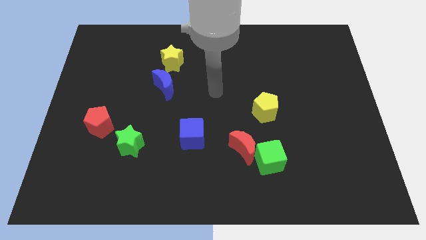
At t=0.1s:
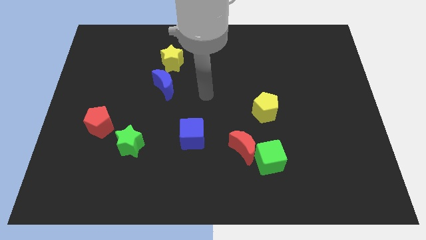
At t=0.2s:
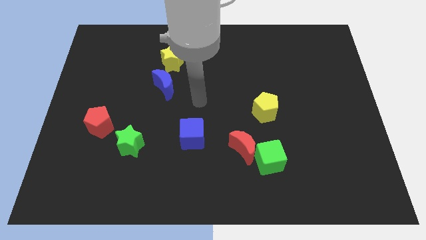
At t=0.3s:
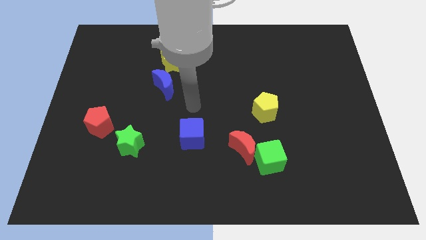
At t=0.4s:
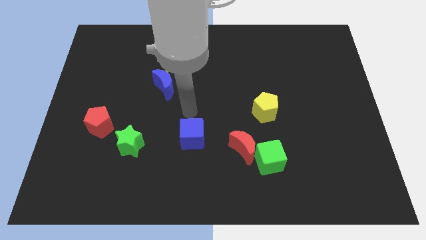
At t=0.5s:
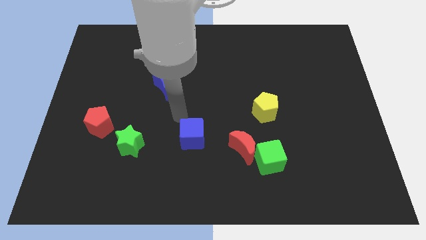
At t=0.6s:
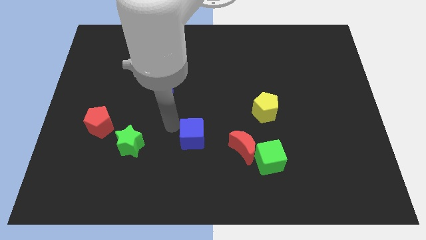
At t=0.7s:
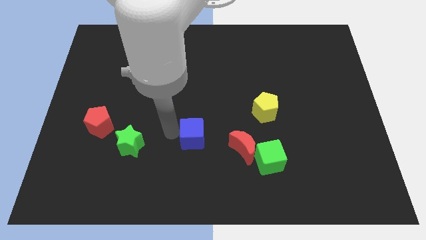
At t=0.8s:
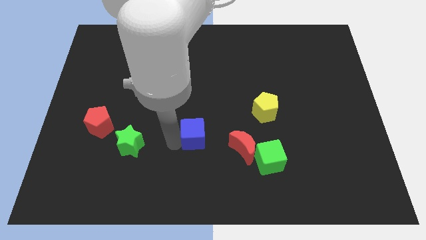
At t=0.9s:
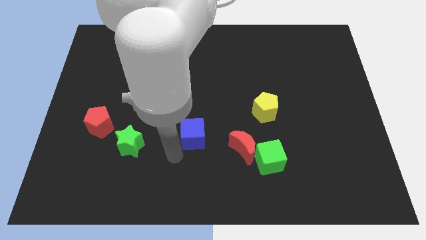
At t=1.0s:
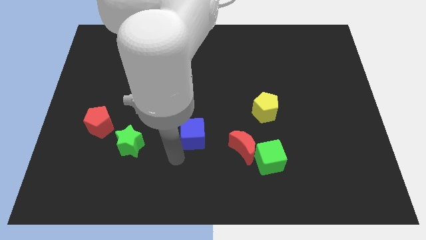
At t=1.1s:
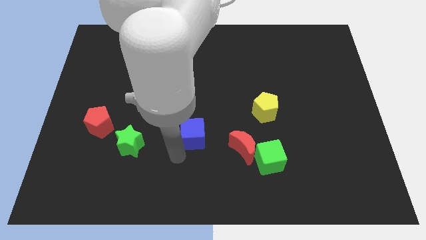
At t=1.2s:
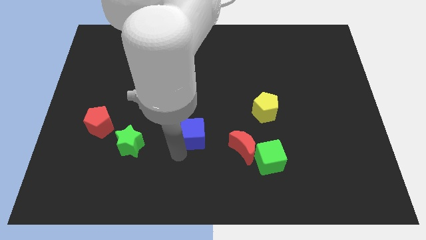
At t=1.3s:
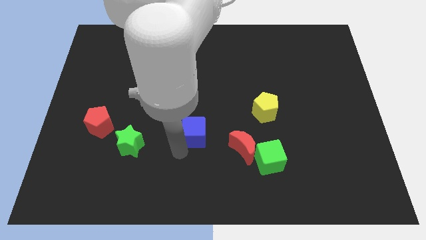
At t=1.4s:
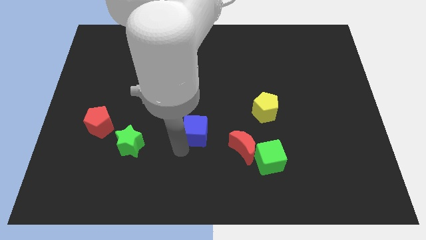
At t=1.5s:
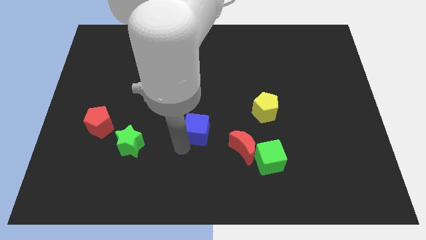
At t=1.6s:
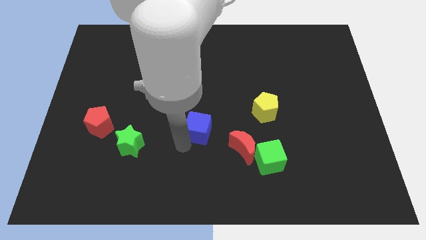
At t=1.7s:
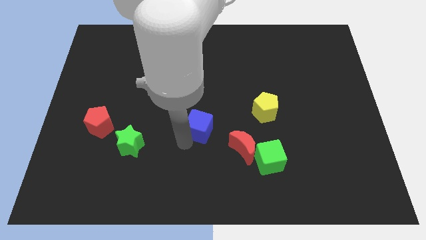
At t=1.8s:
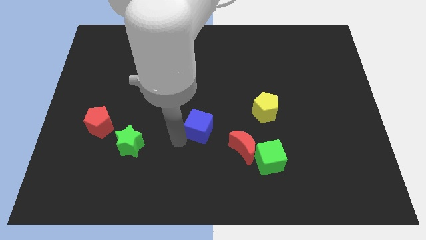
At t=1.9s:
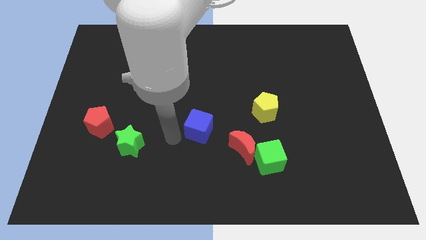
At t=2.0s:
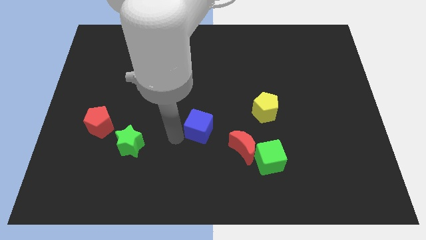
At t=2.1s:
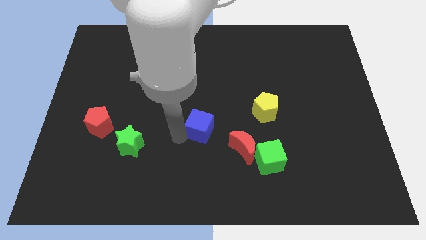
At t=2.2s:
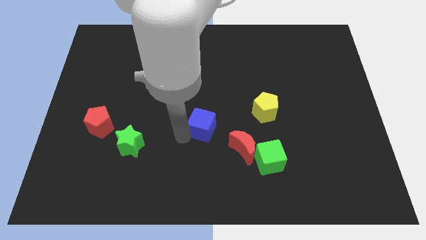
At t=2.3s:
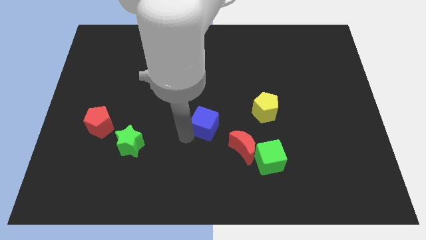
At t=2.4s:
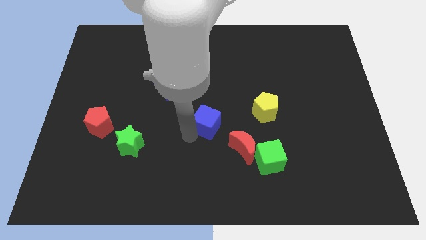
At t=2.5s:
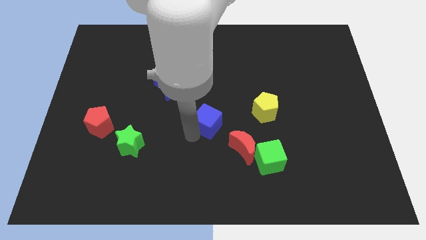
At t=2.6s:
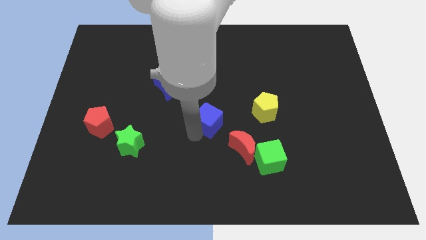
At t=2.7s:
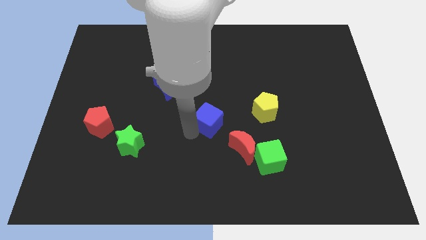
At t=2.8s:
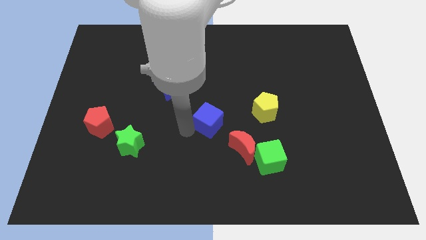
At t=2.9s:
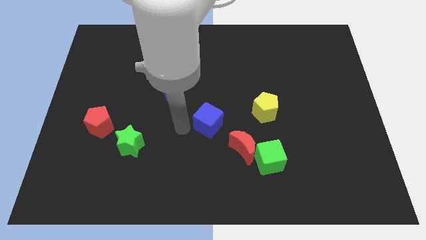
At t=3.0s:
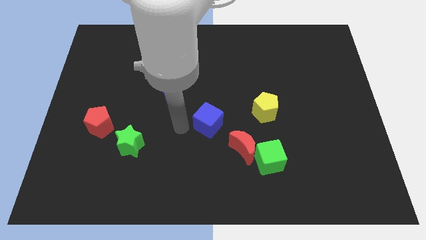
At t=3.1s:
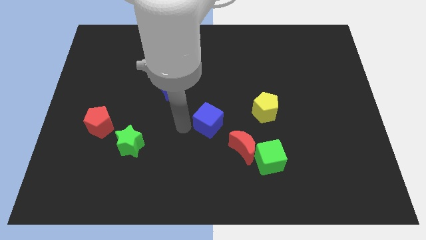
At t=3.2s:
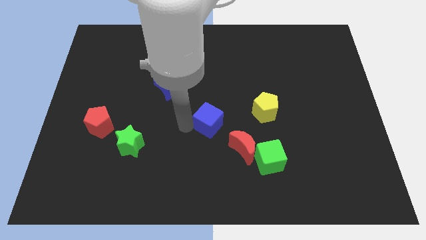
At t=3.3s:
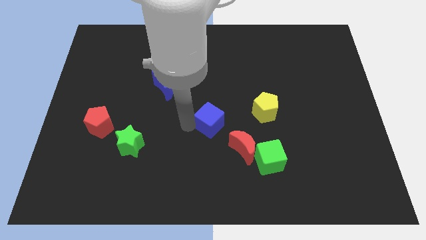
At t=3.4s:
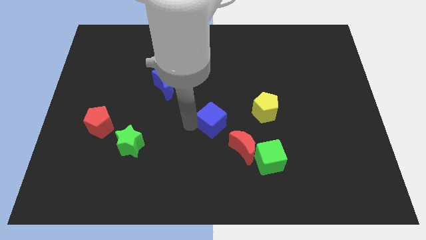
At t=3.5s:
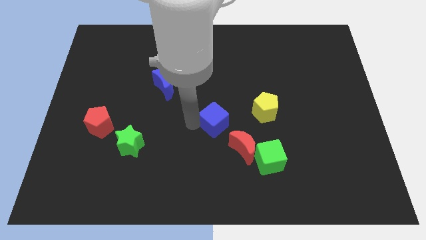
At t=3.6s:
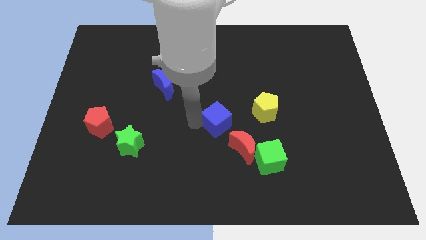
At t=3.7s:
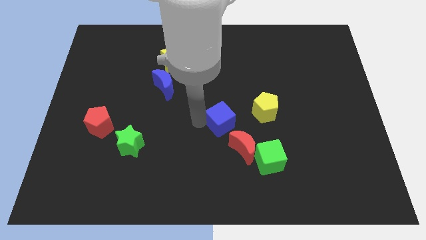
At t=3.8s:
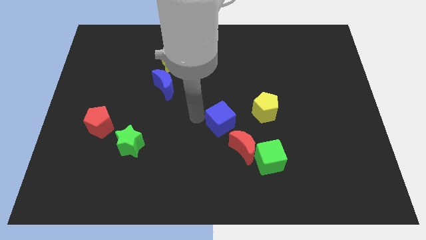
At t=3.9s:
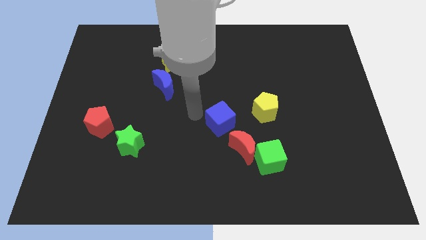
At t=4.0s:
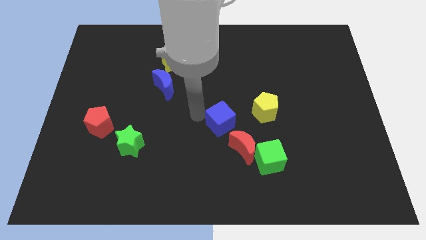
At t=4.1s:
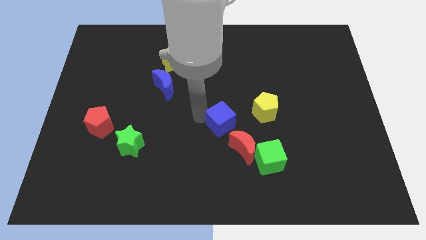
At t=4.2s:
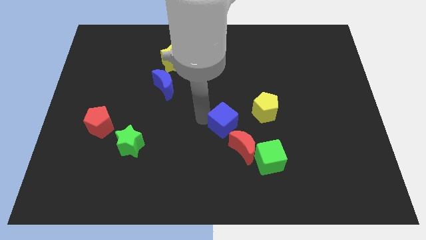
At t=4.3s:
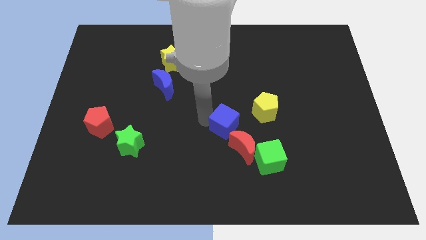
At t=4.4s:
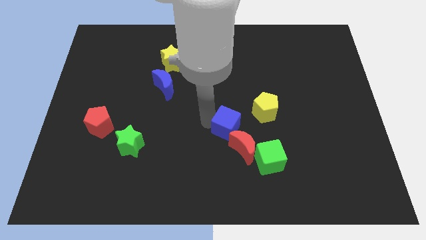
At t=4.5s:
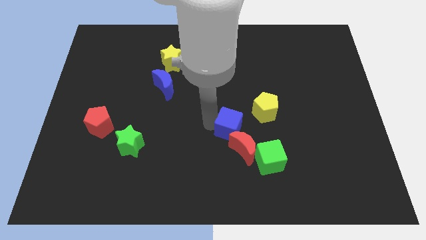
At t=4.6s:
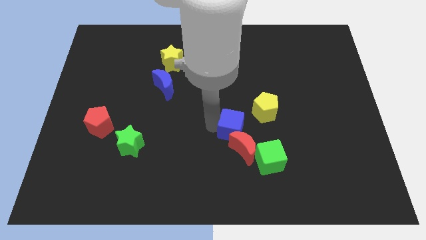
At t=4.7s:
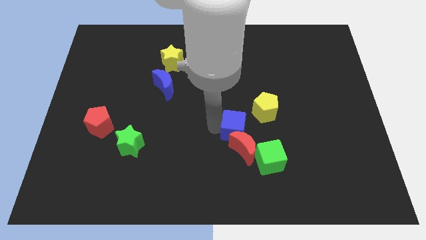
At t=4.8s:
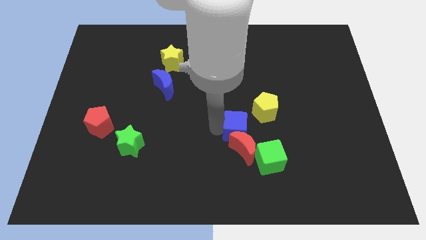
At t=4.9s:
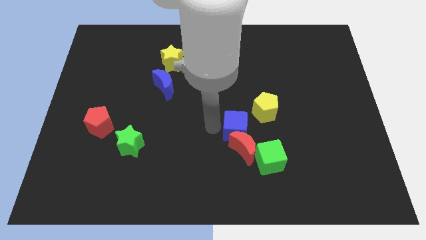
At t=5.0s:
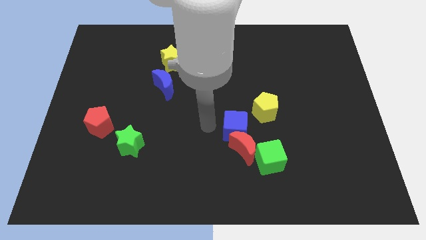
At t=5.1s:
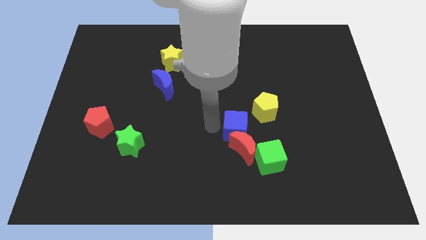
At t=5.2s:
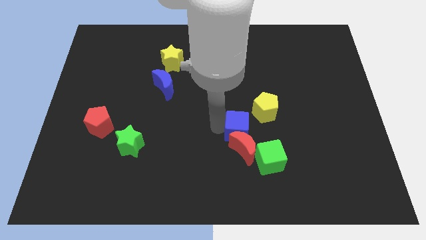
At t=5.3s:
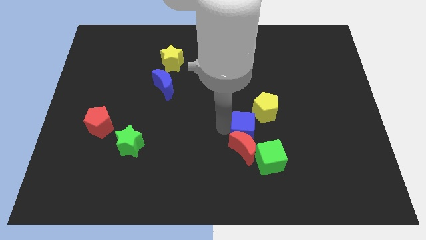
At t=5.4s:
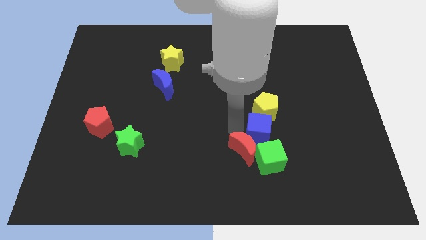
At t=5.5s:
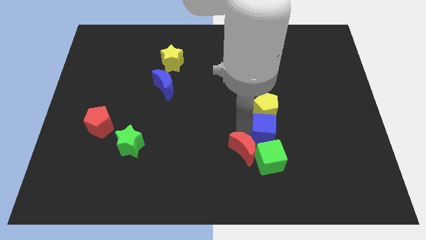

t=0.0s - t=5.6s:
slide the blue cube diagonally down and to the right of the yellow pentagon

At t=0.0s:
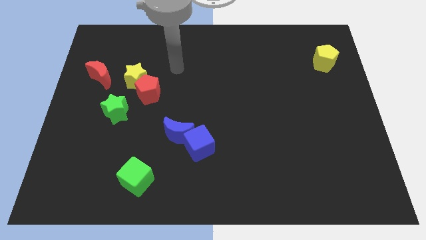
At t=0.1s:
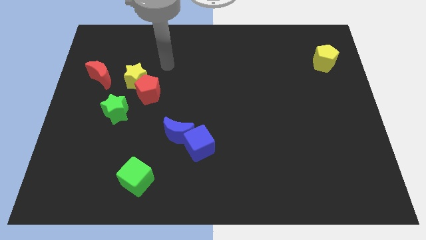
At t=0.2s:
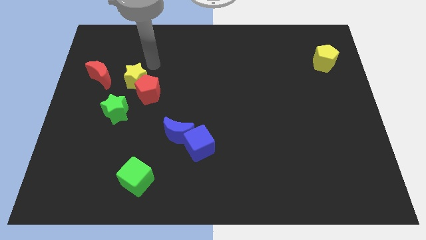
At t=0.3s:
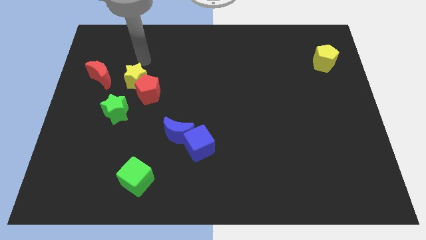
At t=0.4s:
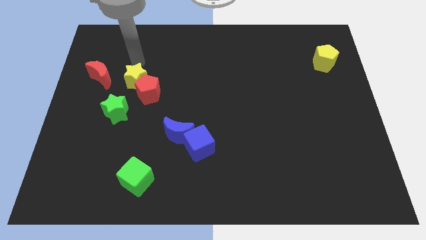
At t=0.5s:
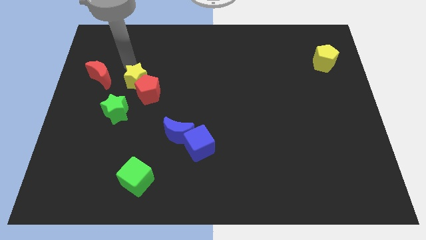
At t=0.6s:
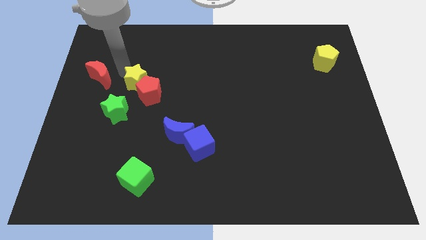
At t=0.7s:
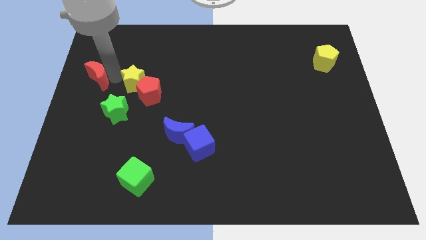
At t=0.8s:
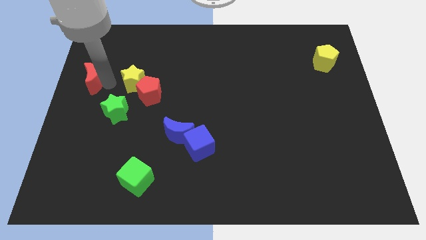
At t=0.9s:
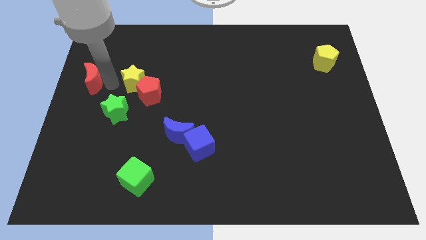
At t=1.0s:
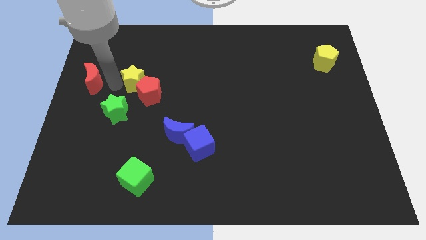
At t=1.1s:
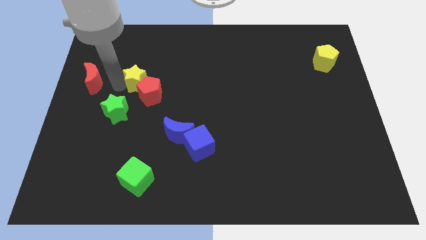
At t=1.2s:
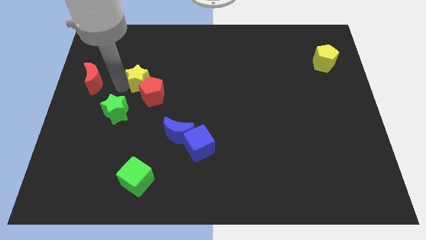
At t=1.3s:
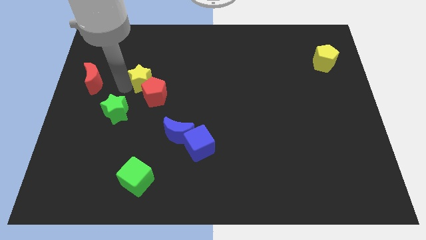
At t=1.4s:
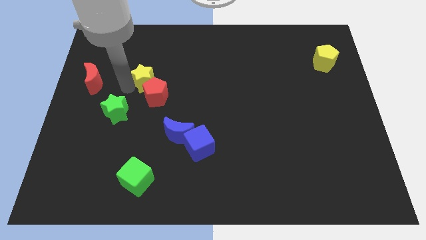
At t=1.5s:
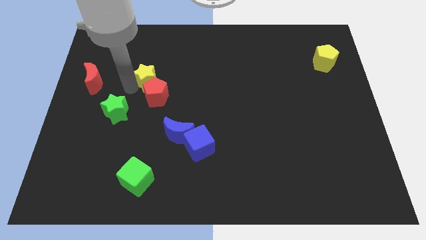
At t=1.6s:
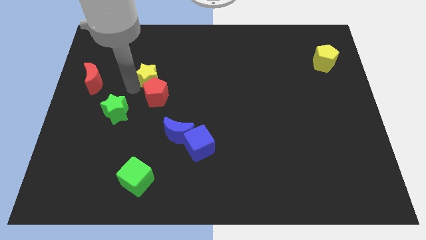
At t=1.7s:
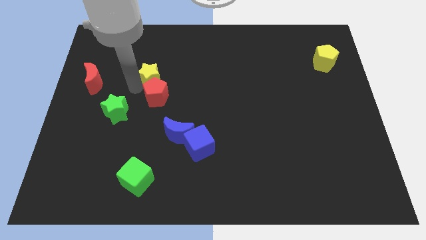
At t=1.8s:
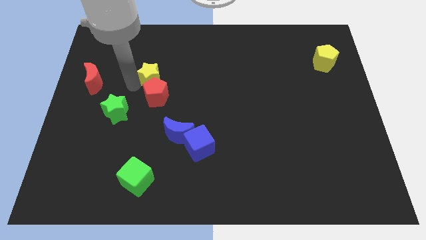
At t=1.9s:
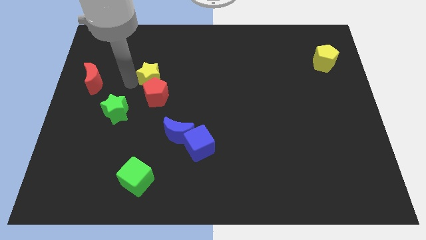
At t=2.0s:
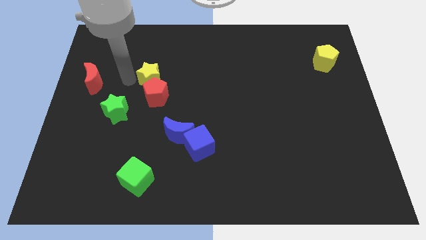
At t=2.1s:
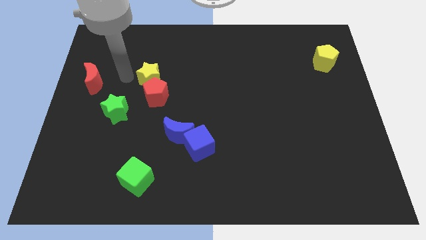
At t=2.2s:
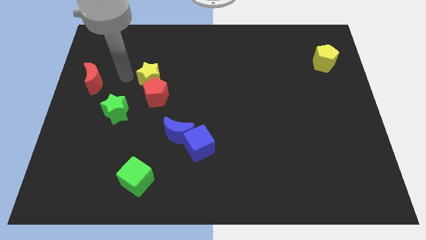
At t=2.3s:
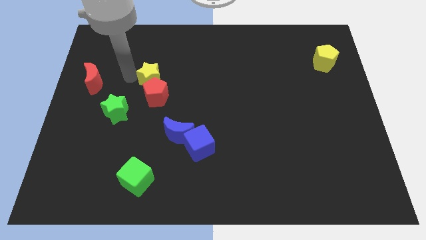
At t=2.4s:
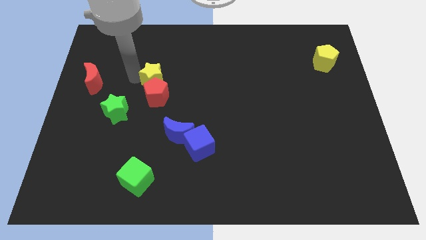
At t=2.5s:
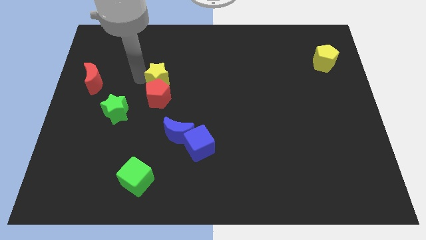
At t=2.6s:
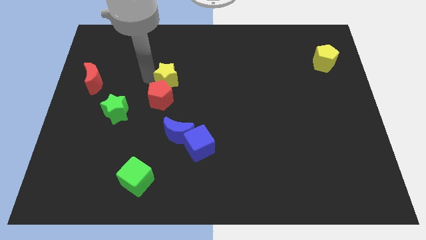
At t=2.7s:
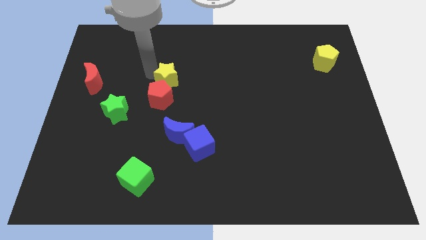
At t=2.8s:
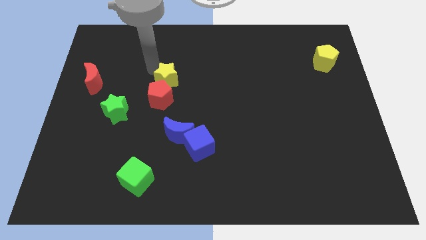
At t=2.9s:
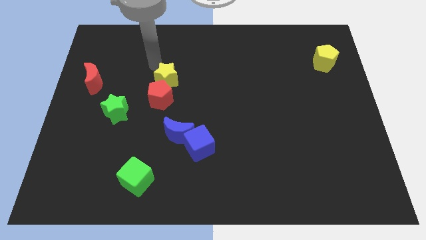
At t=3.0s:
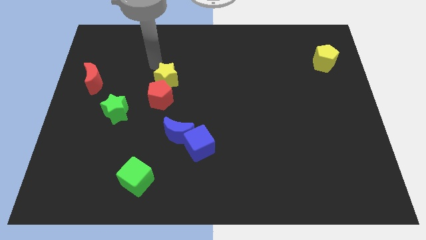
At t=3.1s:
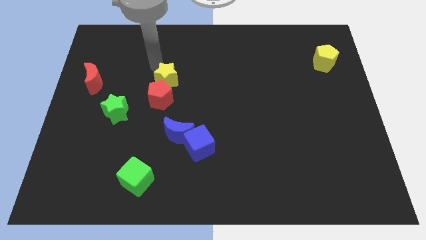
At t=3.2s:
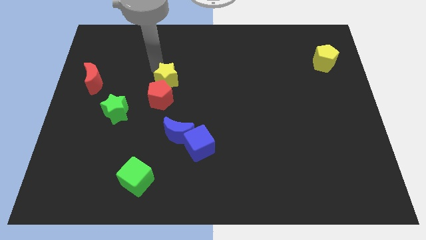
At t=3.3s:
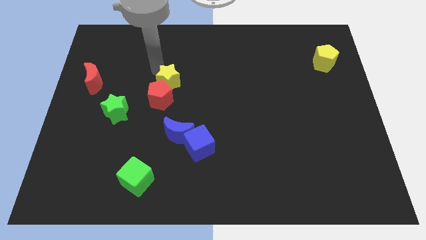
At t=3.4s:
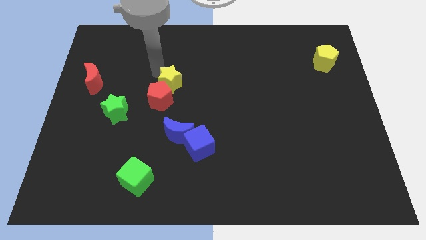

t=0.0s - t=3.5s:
slide the yellow star above the blue moon
